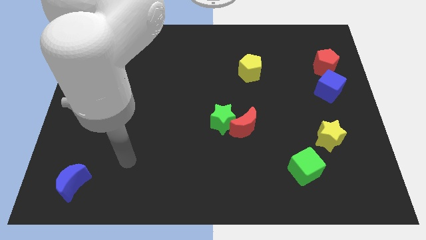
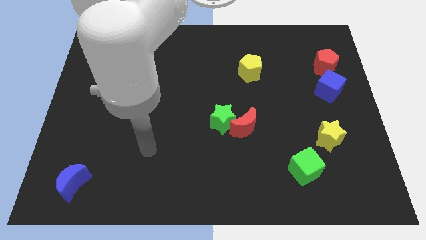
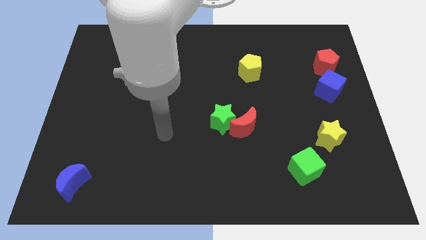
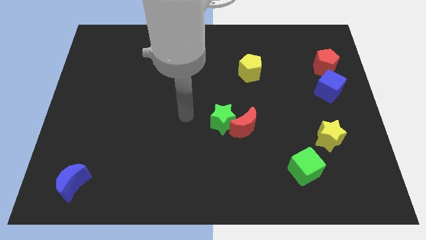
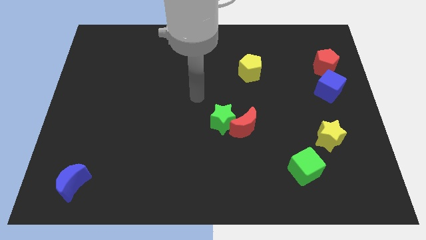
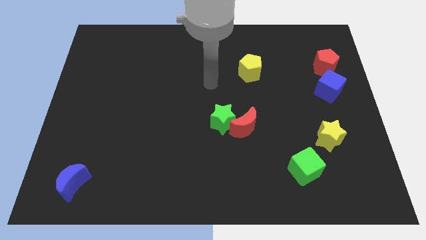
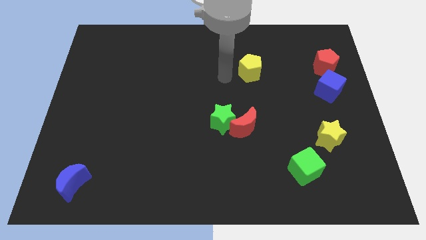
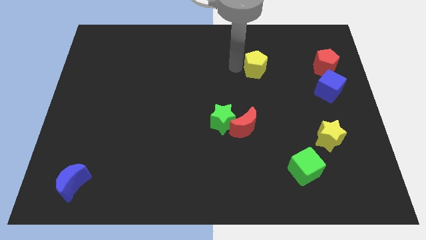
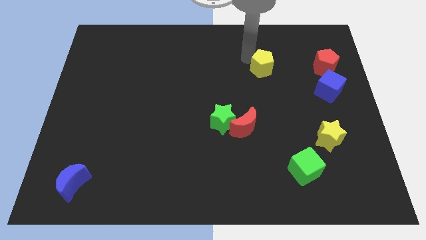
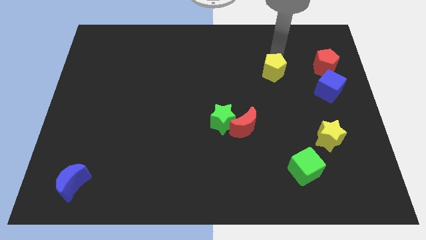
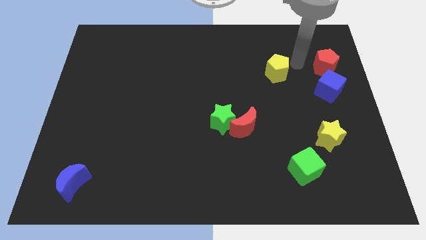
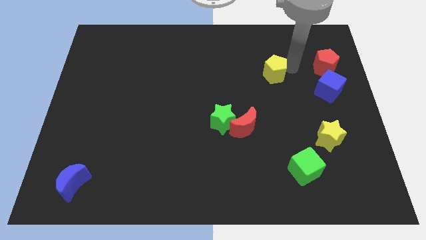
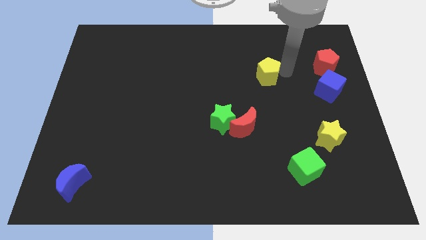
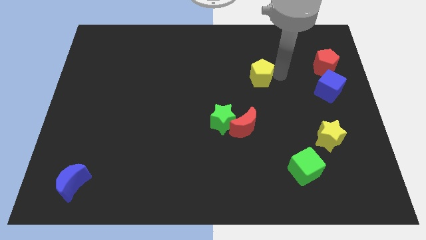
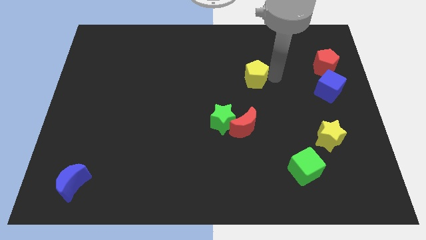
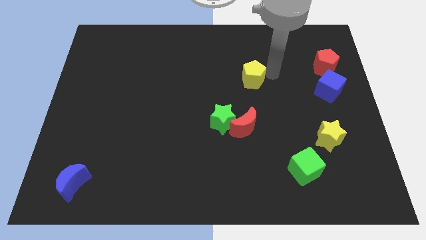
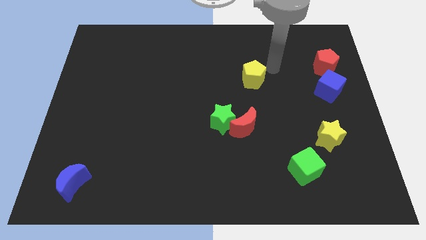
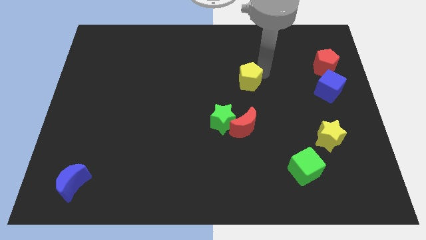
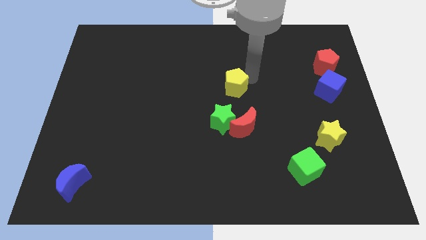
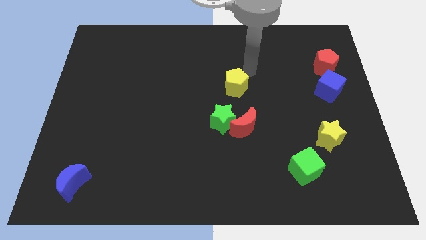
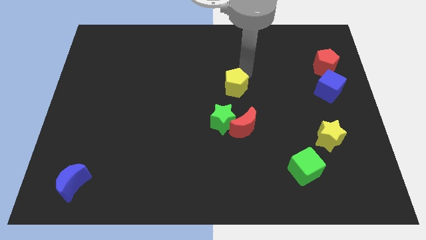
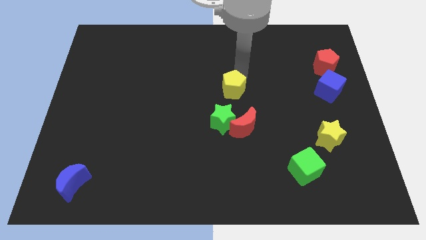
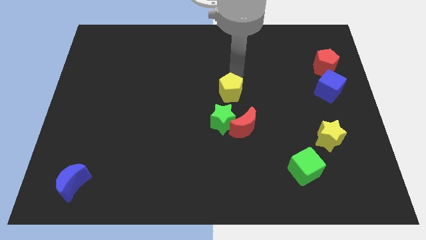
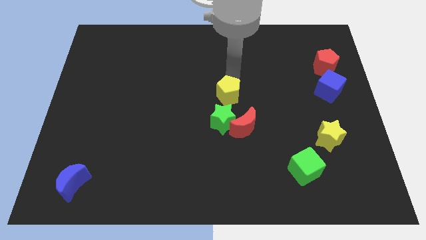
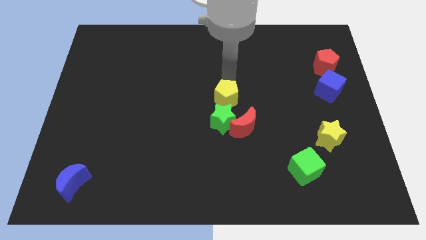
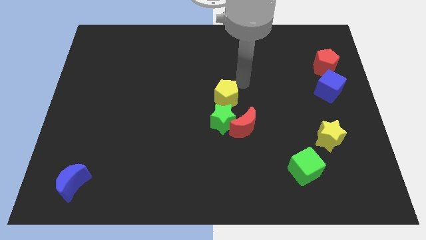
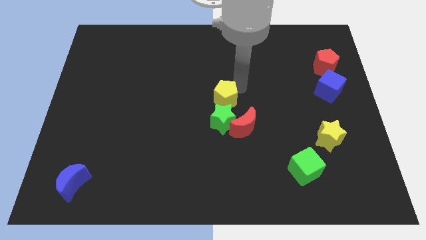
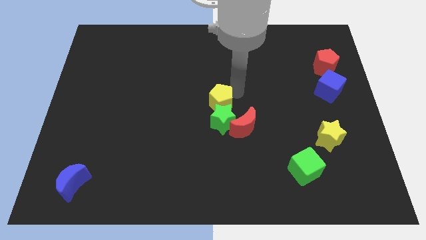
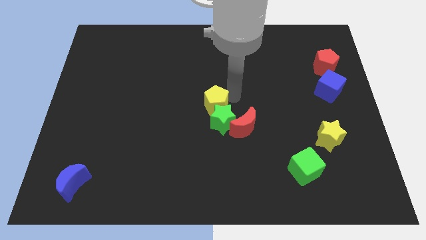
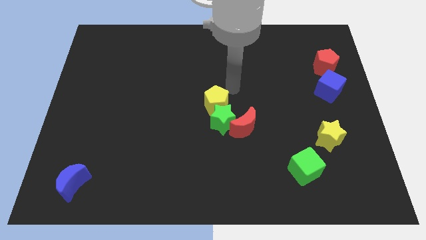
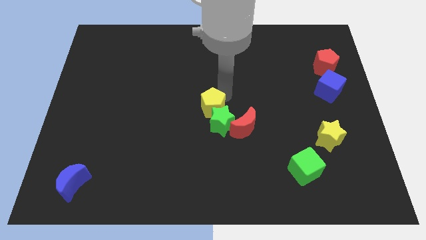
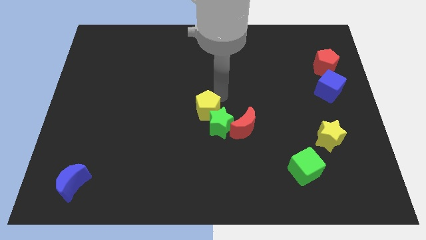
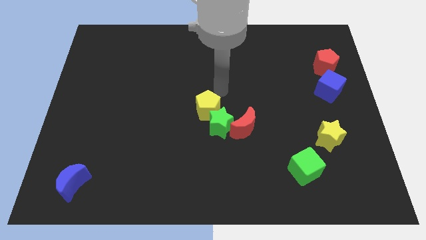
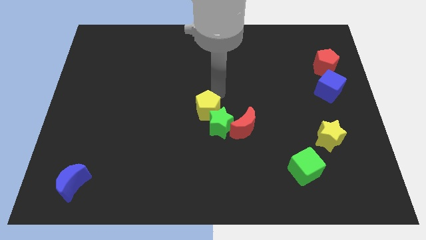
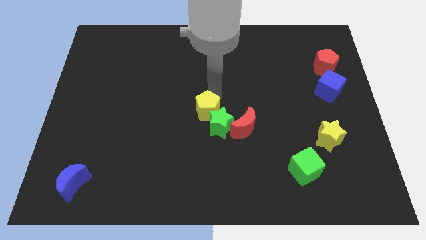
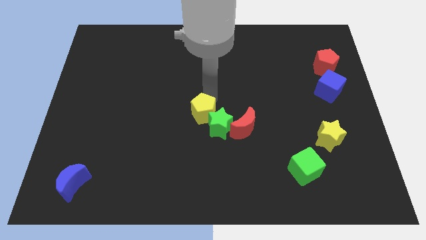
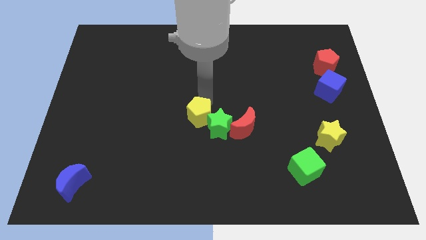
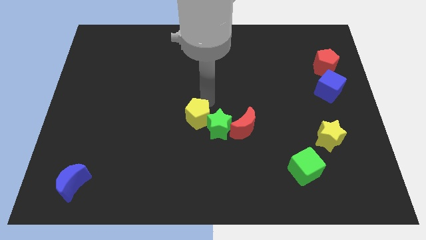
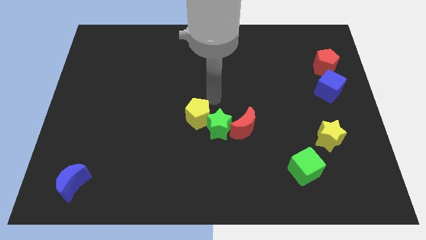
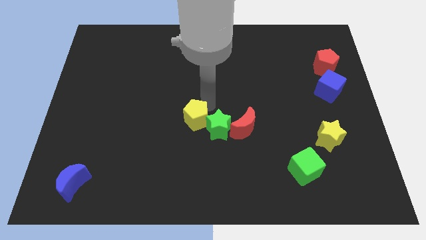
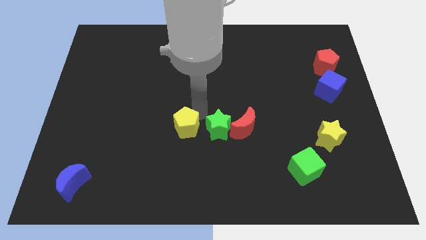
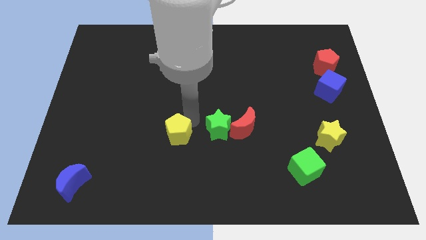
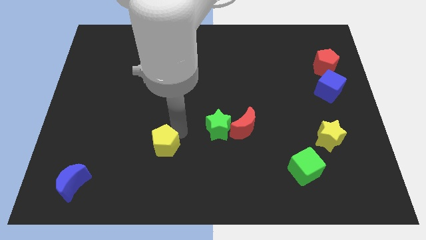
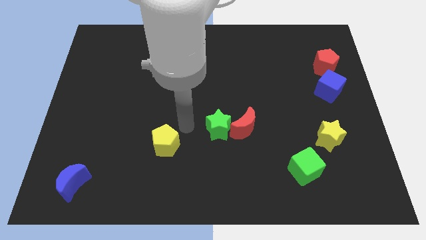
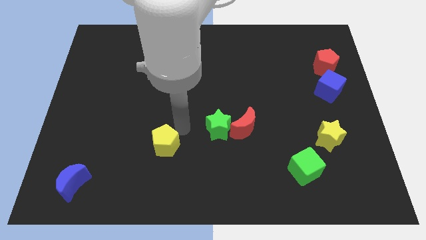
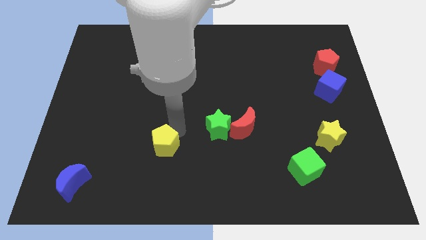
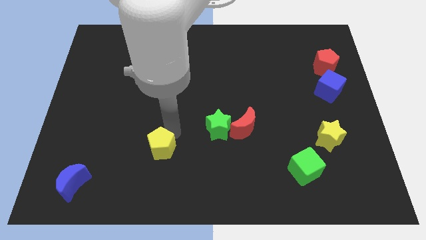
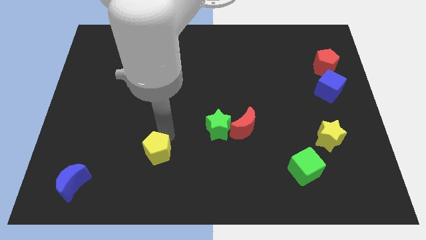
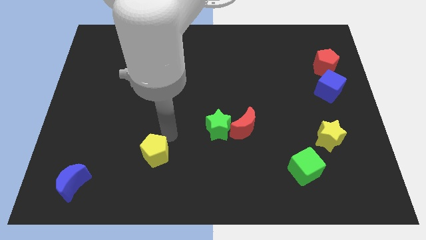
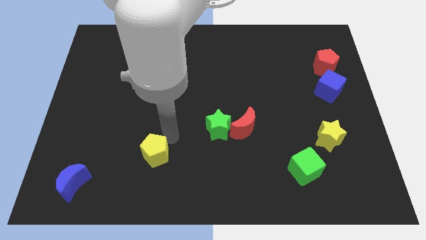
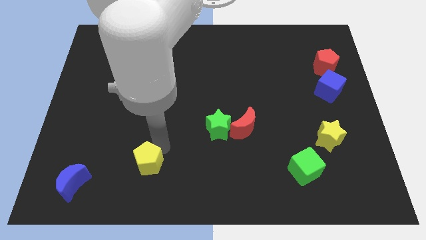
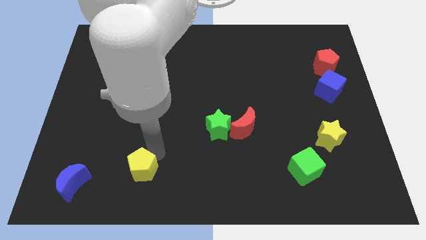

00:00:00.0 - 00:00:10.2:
move the yellow pentagon right of the blue moon

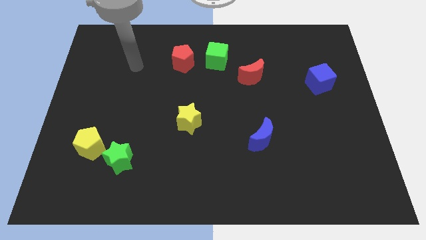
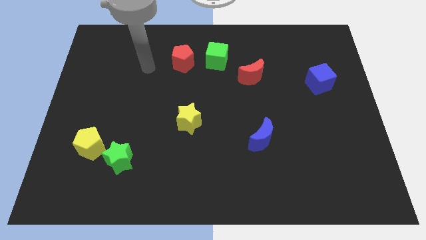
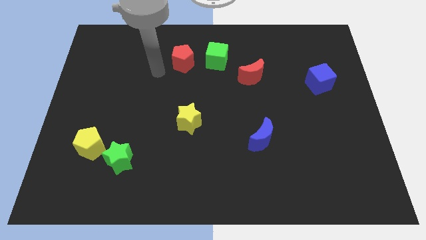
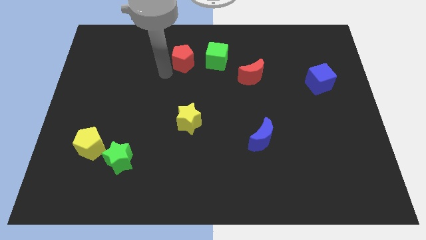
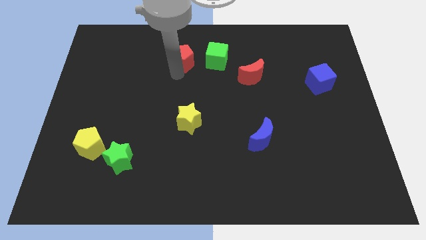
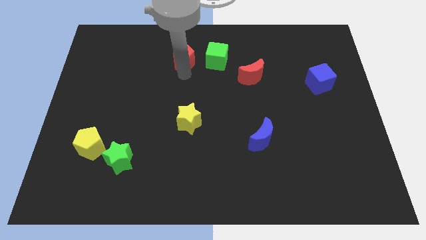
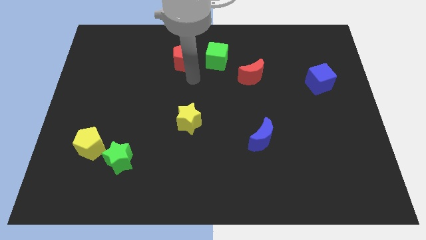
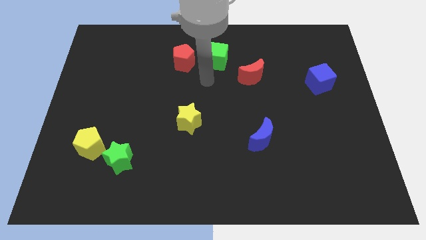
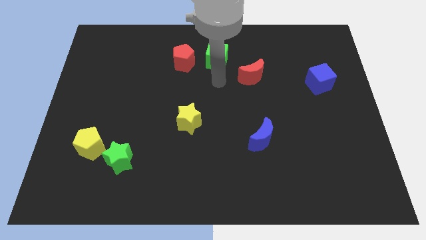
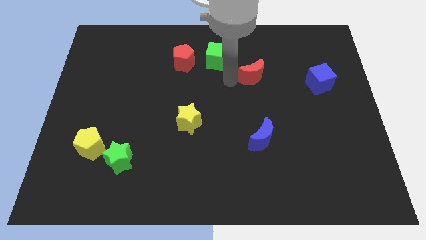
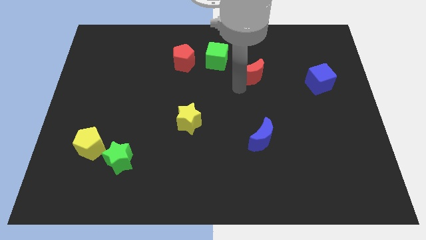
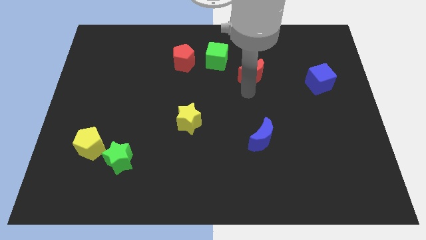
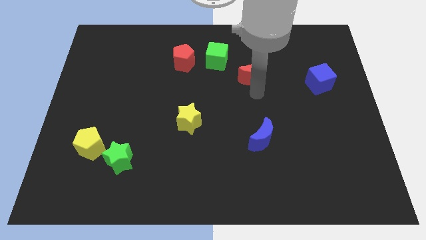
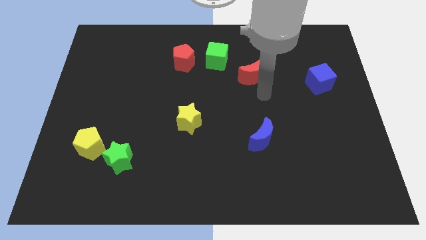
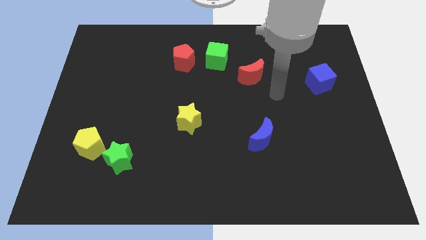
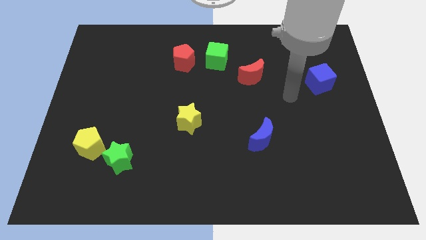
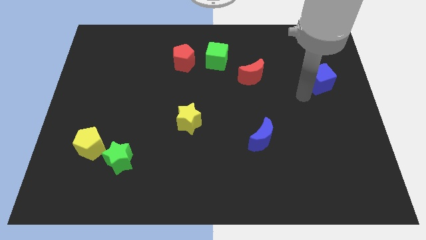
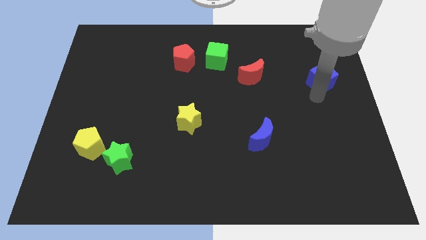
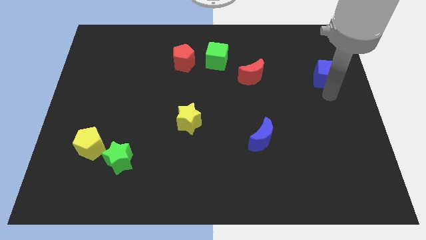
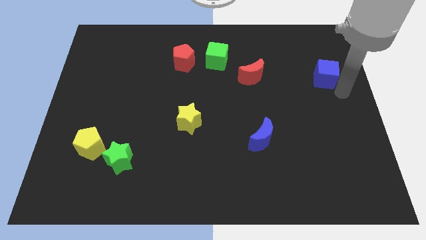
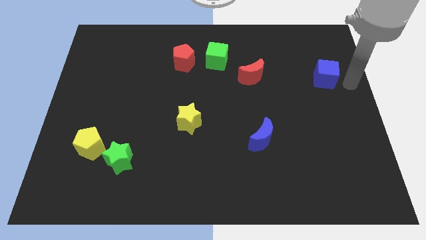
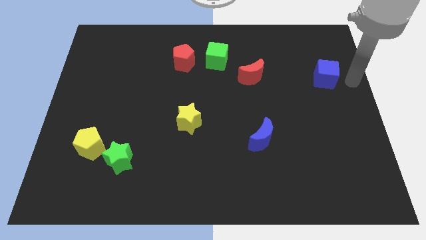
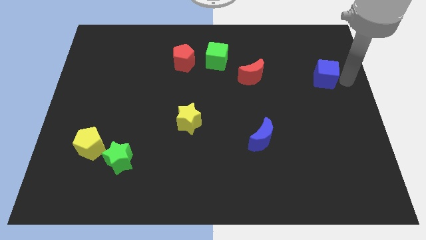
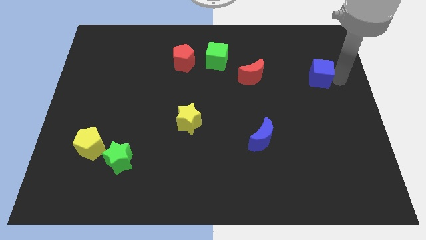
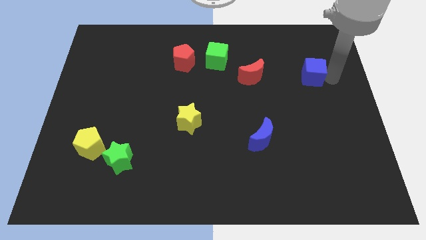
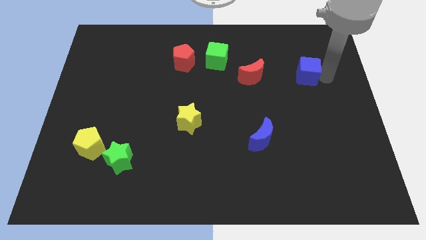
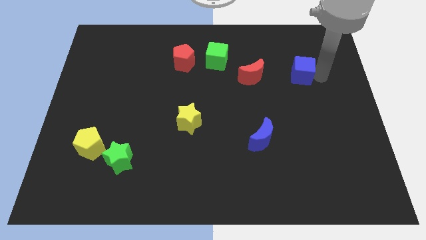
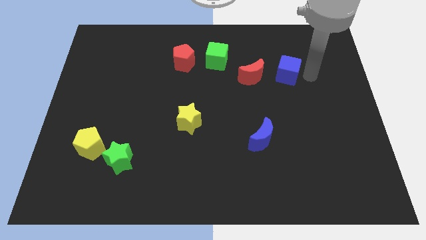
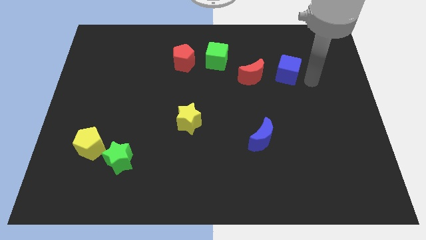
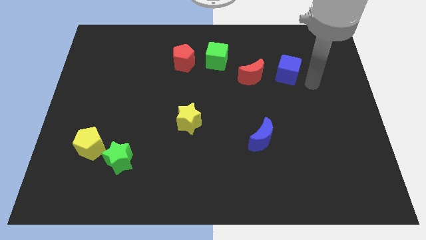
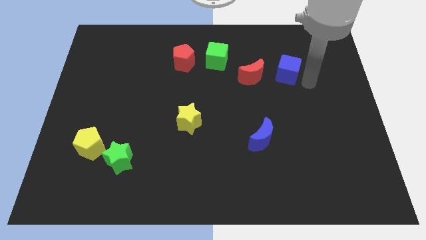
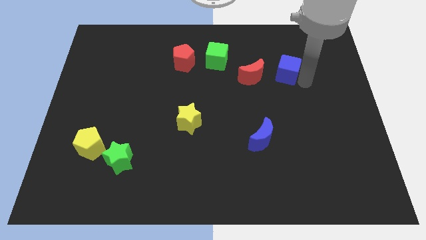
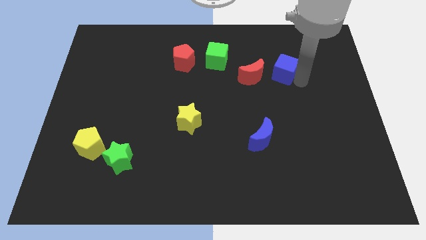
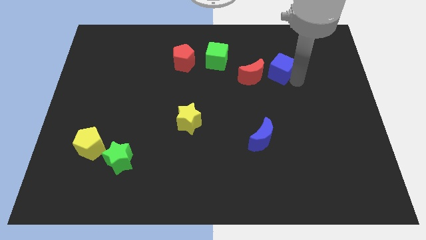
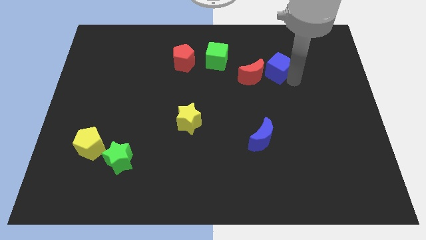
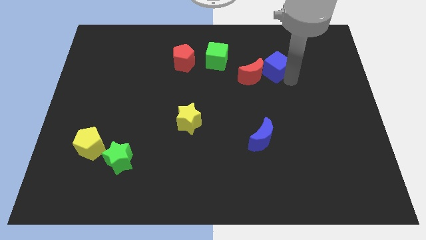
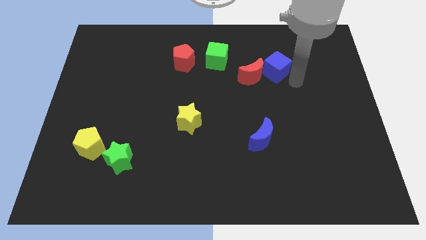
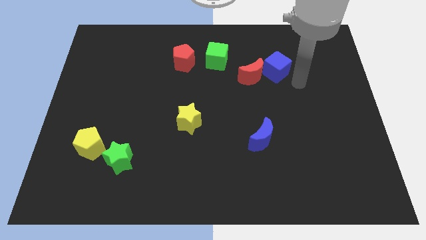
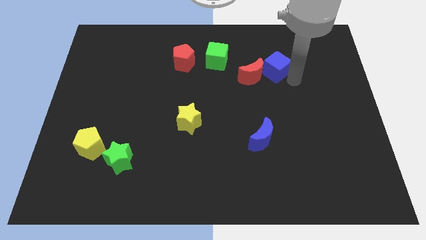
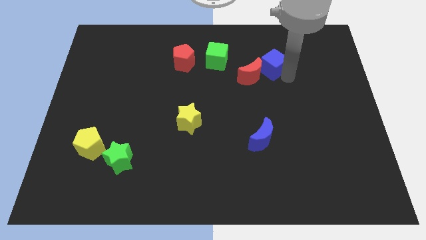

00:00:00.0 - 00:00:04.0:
move the blue cube just right of the green cube
